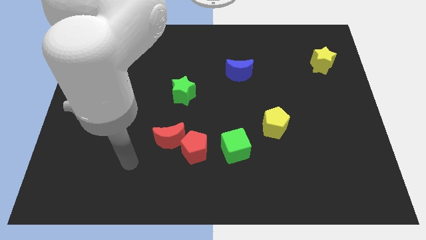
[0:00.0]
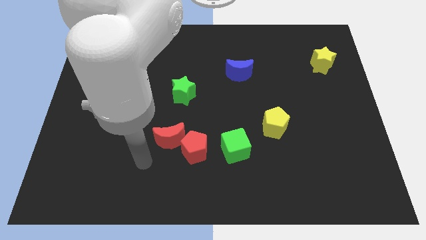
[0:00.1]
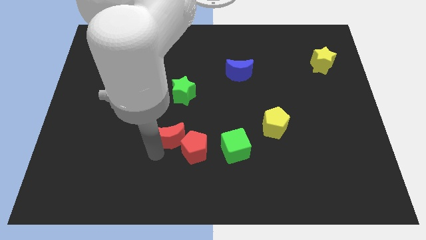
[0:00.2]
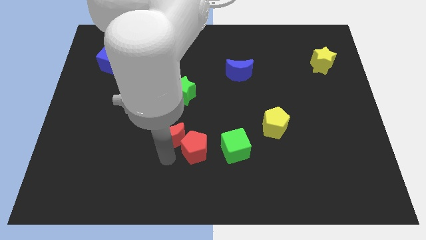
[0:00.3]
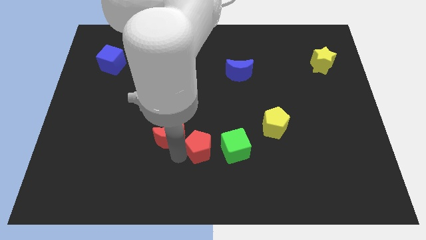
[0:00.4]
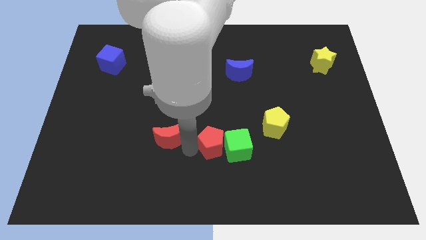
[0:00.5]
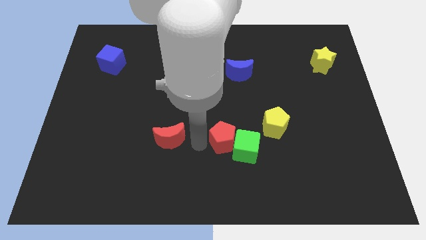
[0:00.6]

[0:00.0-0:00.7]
move the red moon away from the red pentagon

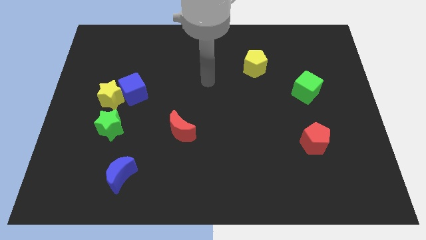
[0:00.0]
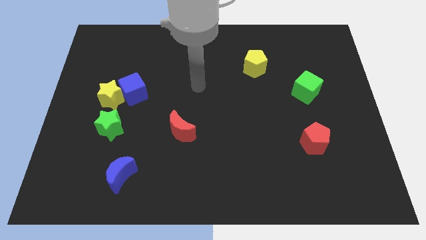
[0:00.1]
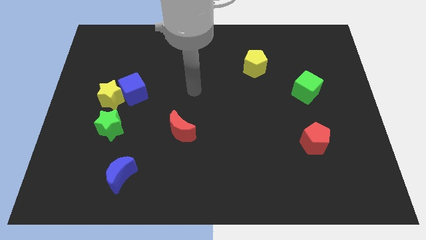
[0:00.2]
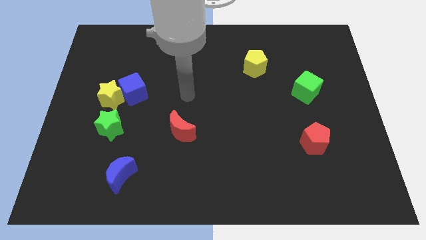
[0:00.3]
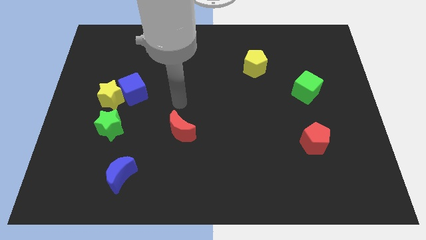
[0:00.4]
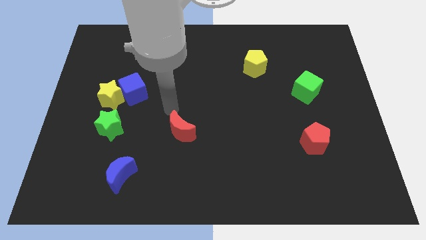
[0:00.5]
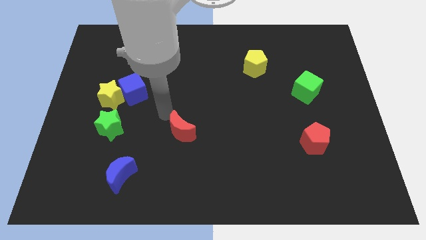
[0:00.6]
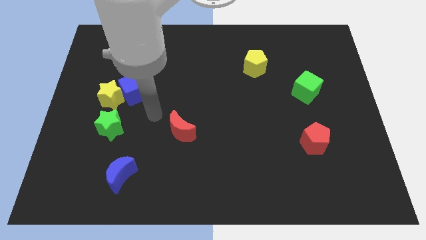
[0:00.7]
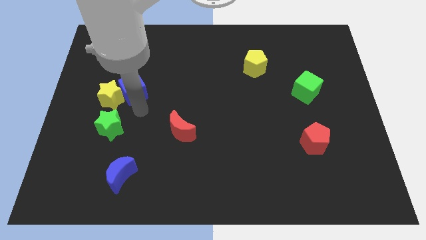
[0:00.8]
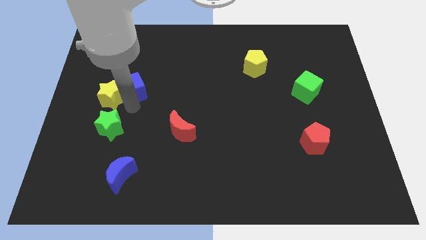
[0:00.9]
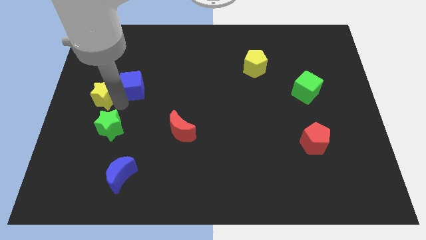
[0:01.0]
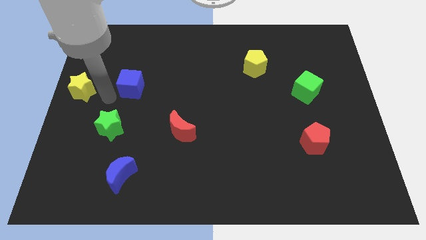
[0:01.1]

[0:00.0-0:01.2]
separate the blue cube from the yellow star

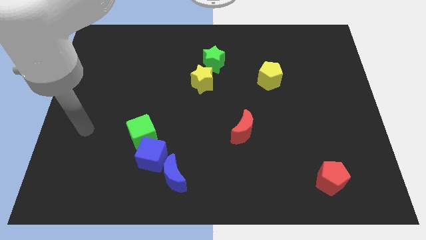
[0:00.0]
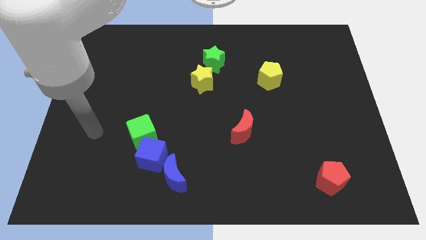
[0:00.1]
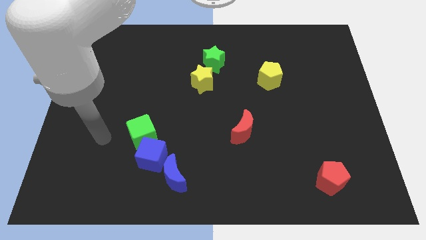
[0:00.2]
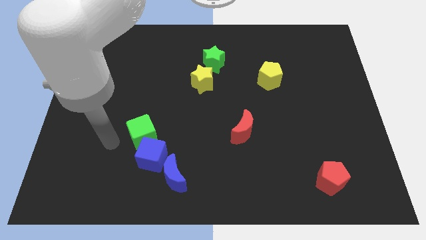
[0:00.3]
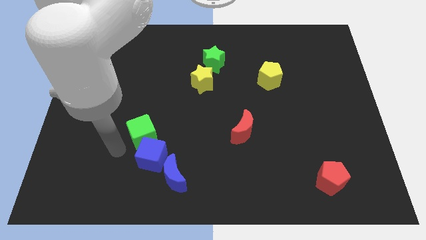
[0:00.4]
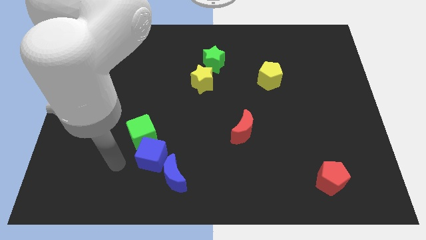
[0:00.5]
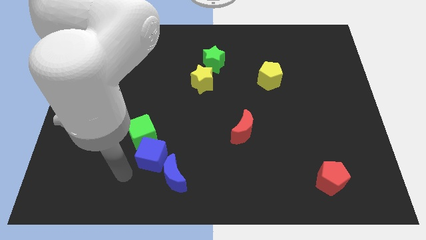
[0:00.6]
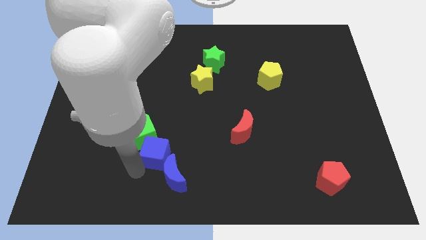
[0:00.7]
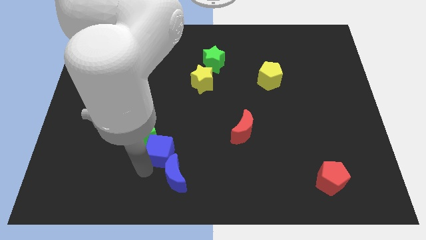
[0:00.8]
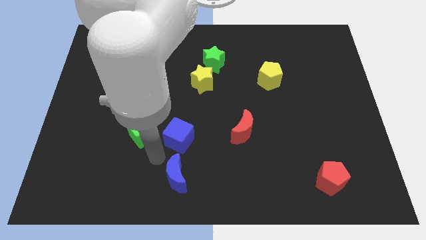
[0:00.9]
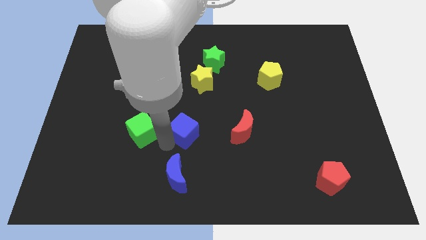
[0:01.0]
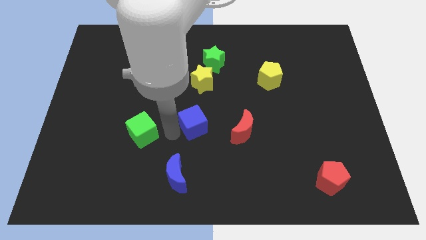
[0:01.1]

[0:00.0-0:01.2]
move the green cube away from the blue cube

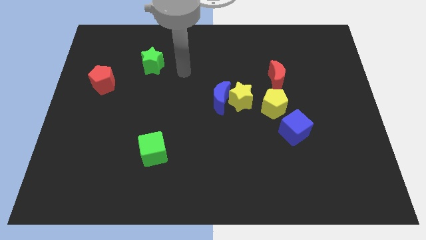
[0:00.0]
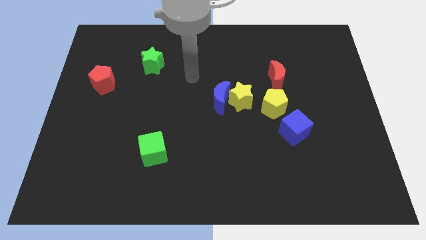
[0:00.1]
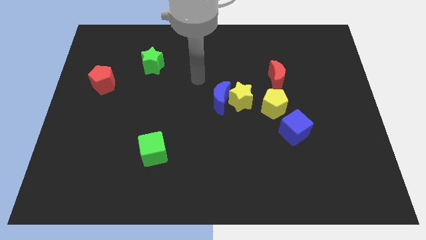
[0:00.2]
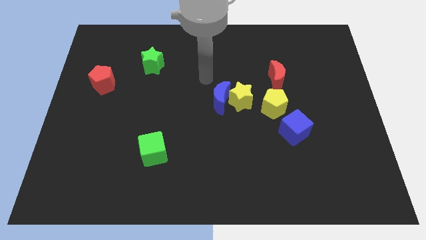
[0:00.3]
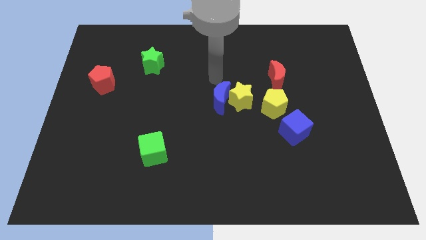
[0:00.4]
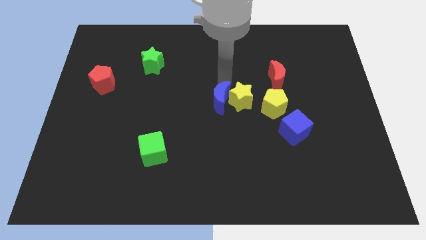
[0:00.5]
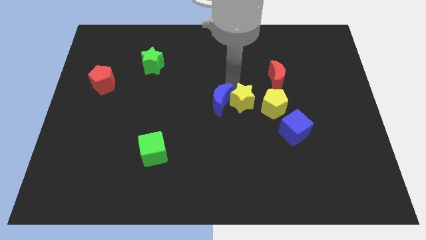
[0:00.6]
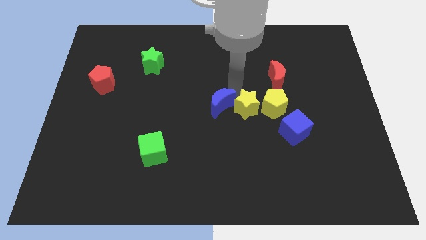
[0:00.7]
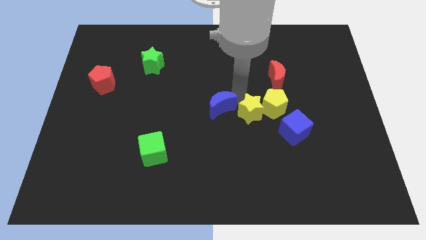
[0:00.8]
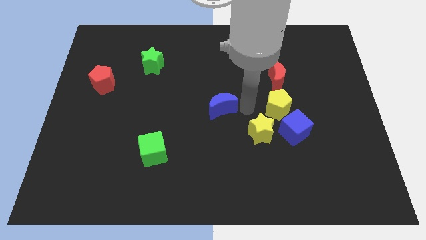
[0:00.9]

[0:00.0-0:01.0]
separate the blue moon from the yellow star

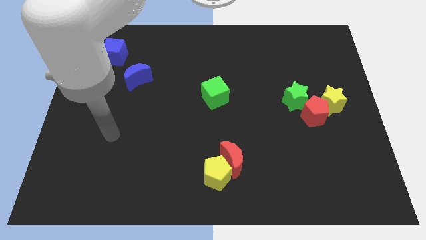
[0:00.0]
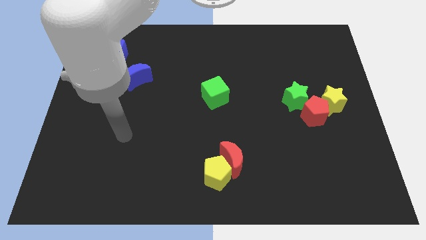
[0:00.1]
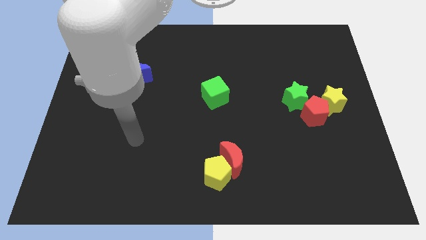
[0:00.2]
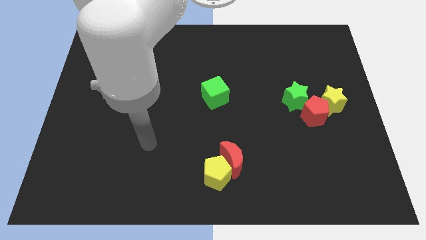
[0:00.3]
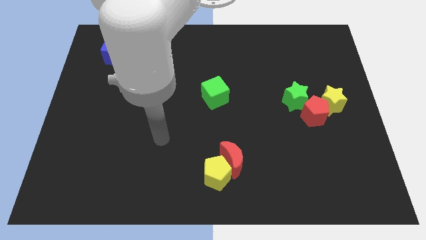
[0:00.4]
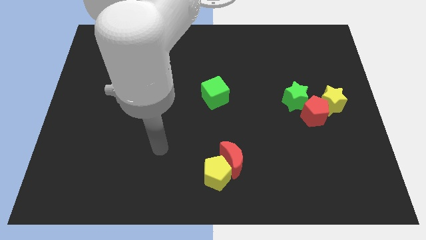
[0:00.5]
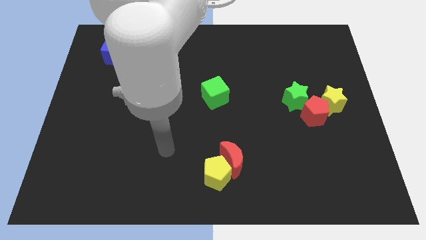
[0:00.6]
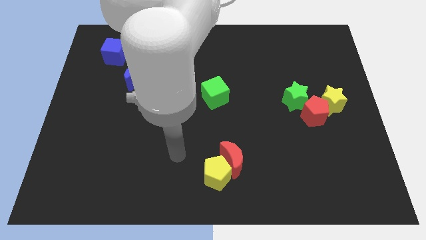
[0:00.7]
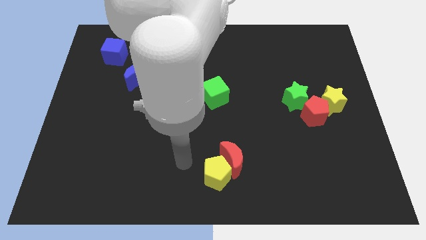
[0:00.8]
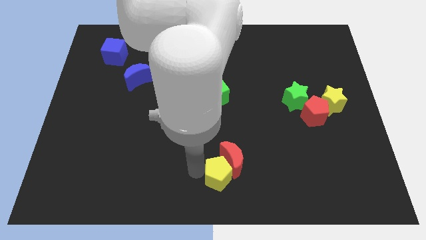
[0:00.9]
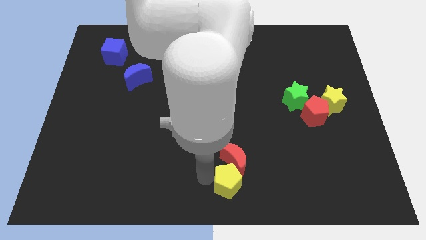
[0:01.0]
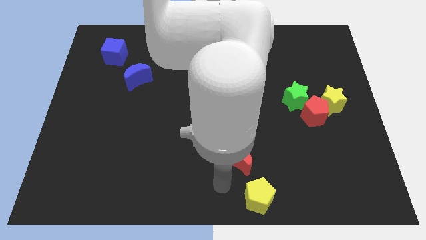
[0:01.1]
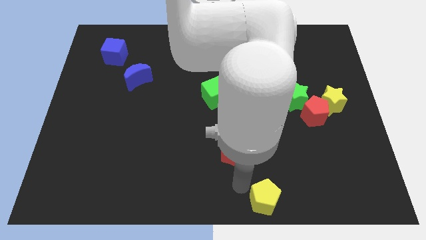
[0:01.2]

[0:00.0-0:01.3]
move the red moon away from the yellow pentagon

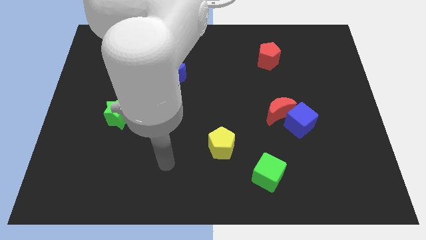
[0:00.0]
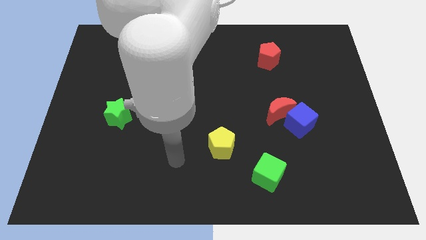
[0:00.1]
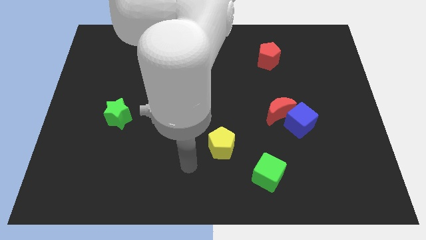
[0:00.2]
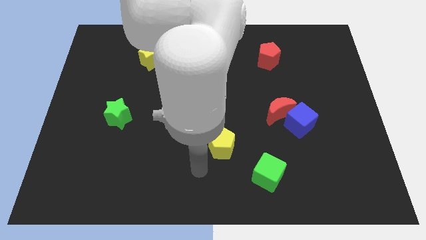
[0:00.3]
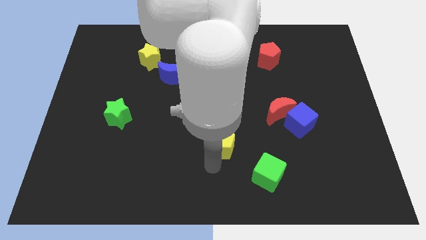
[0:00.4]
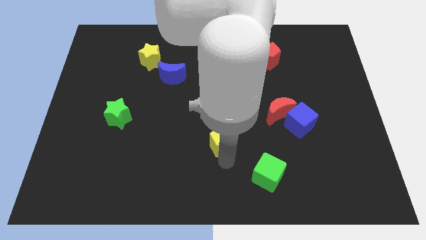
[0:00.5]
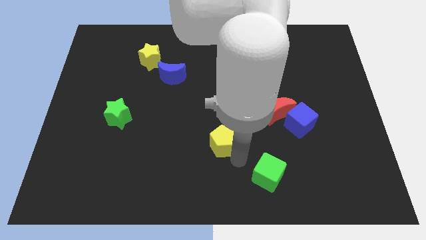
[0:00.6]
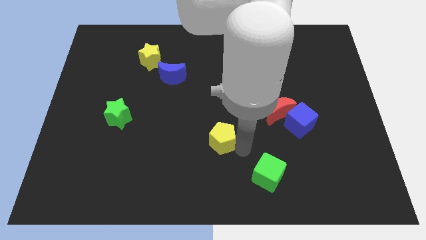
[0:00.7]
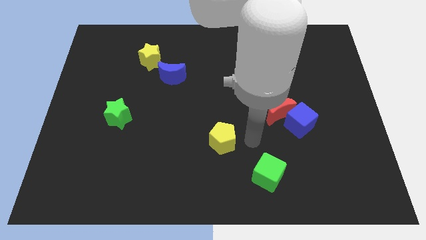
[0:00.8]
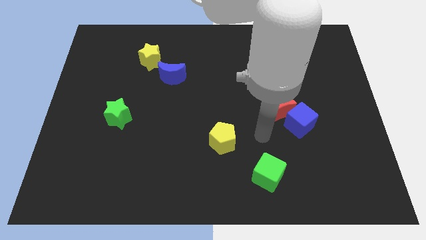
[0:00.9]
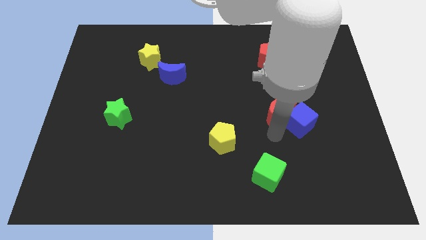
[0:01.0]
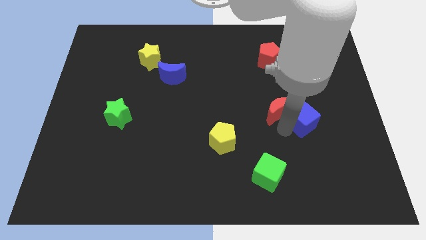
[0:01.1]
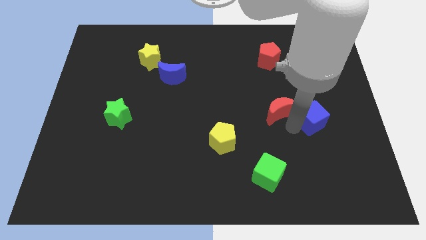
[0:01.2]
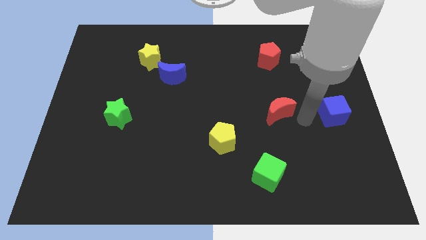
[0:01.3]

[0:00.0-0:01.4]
pull the red moon apart from the blue cube

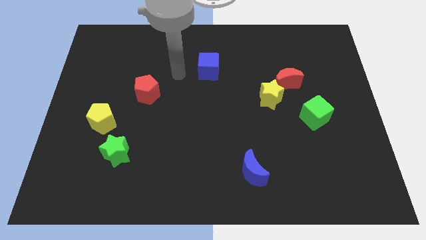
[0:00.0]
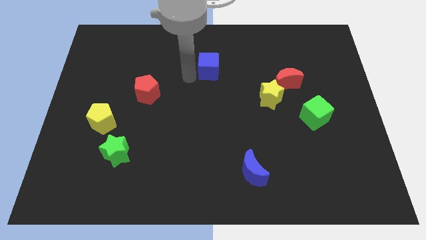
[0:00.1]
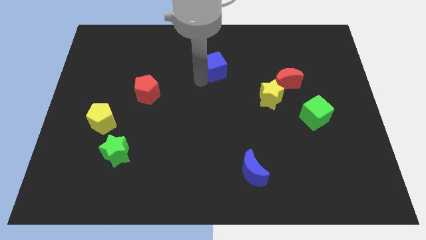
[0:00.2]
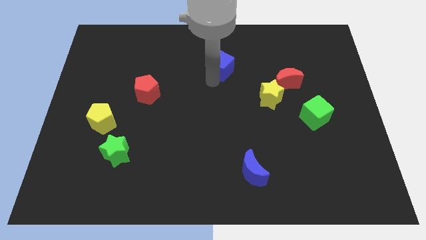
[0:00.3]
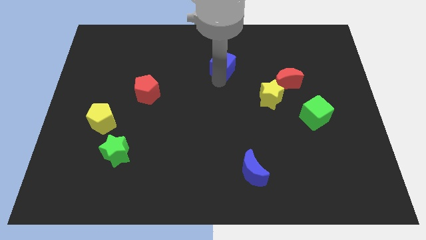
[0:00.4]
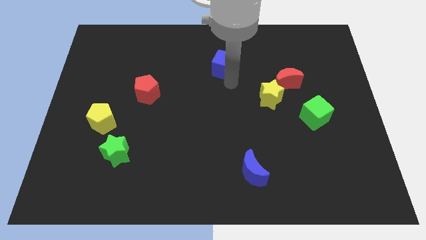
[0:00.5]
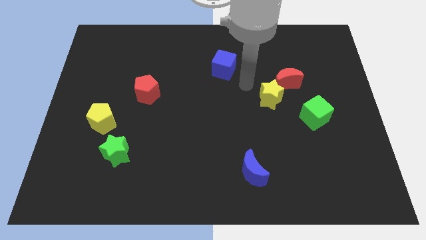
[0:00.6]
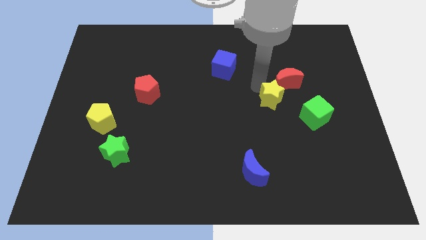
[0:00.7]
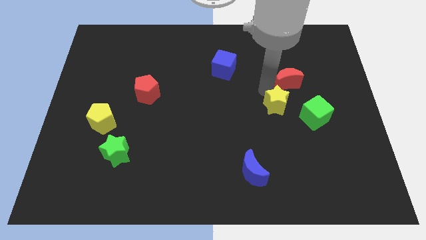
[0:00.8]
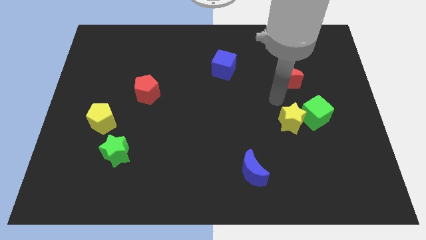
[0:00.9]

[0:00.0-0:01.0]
move the red moon away from the yellow star

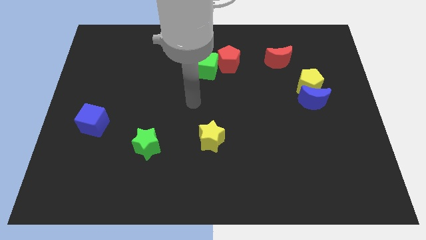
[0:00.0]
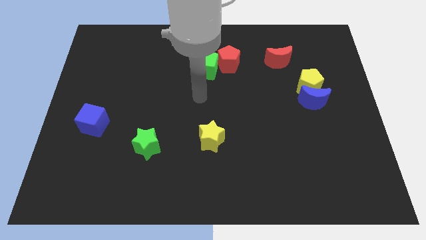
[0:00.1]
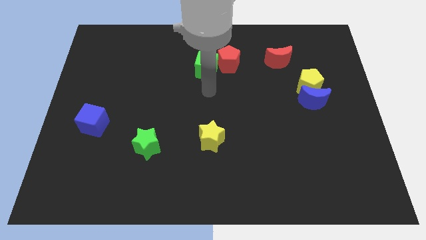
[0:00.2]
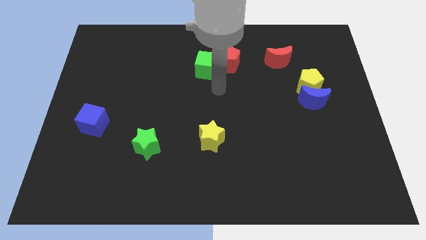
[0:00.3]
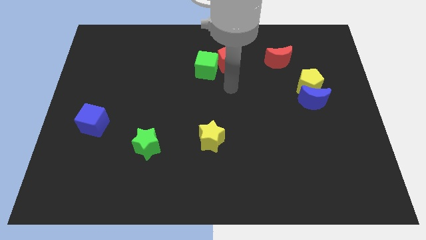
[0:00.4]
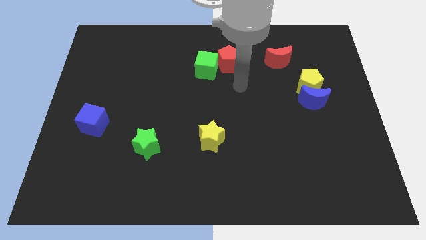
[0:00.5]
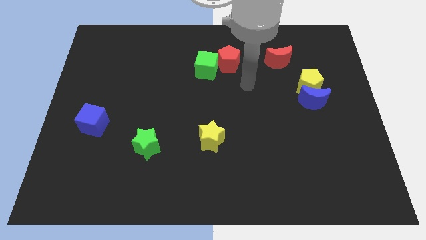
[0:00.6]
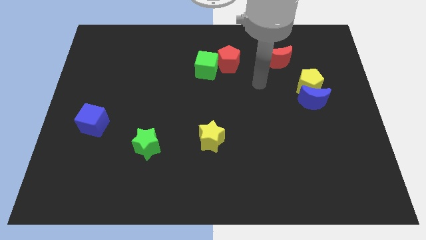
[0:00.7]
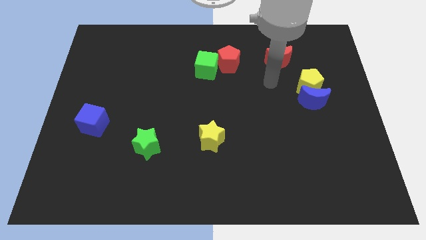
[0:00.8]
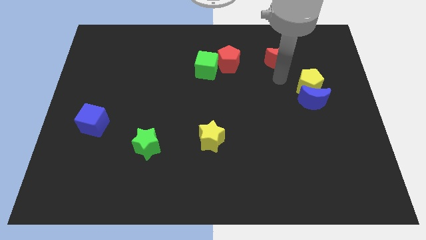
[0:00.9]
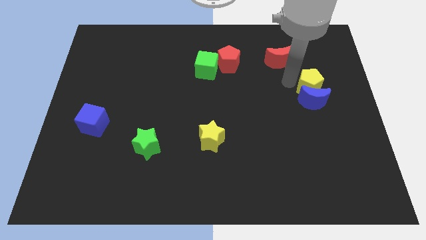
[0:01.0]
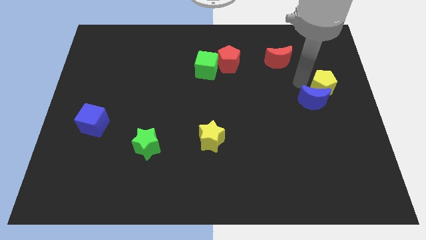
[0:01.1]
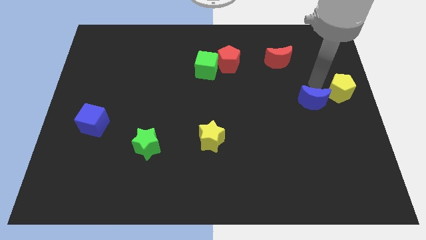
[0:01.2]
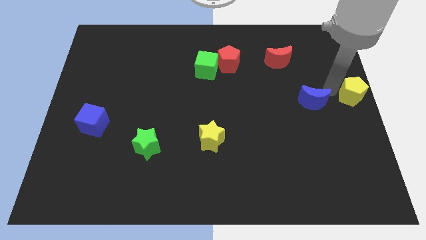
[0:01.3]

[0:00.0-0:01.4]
move the blue moon away from the yellow pentagon
